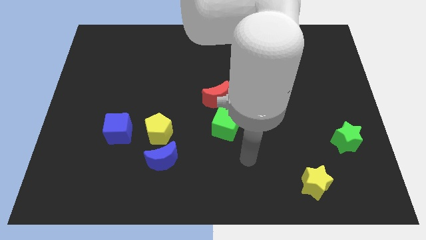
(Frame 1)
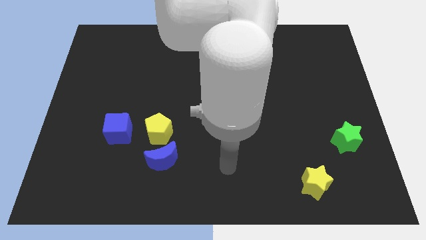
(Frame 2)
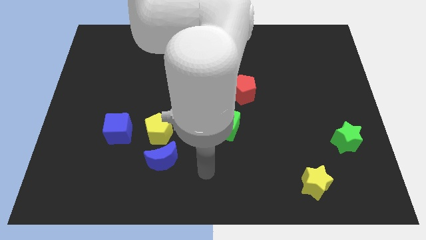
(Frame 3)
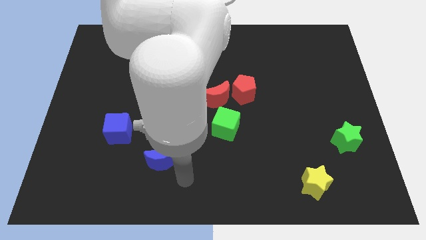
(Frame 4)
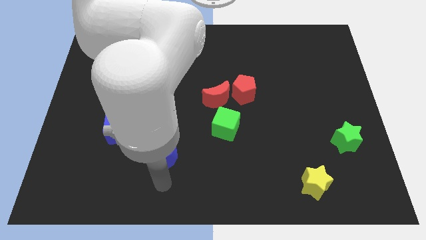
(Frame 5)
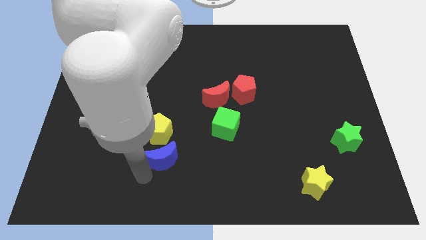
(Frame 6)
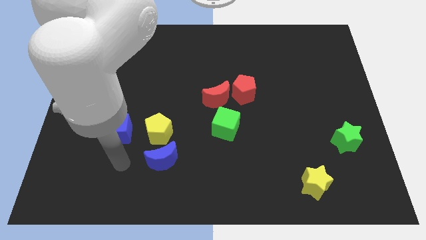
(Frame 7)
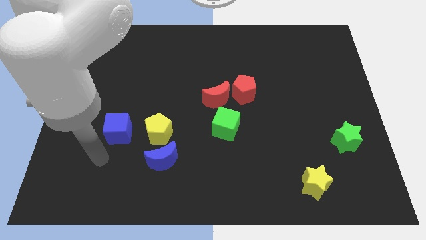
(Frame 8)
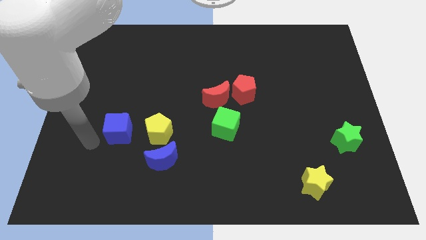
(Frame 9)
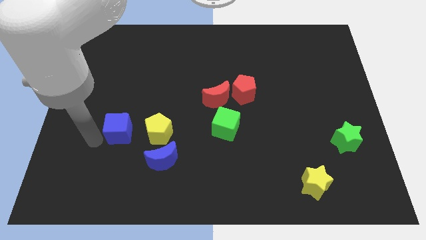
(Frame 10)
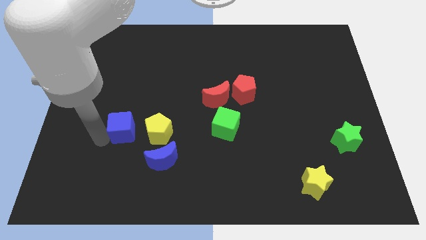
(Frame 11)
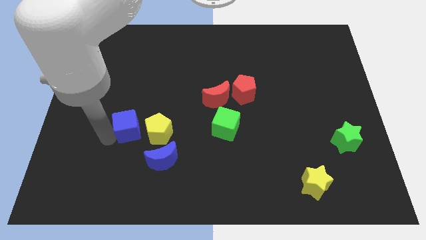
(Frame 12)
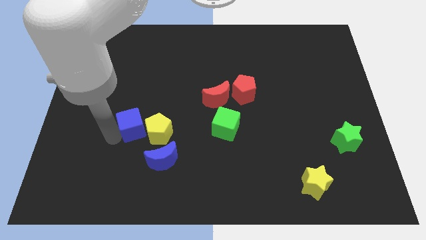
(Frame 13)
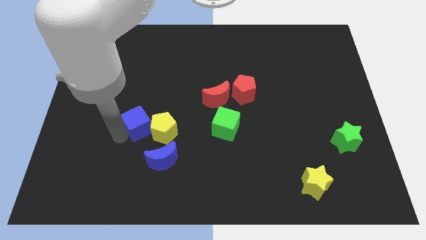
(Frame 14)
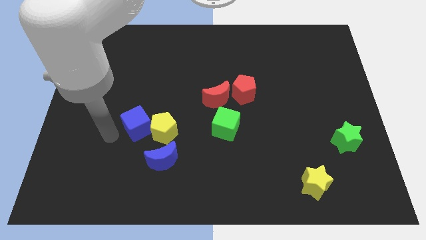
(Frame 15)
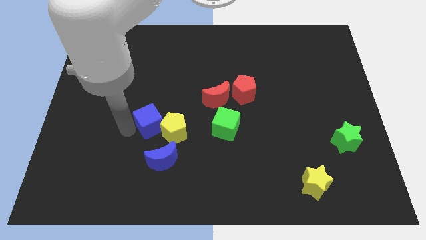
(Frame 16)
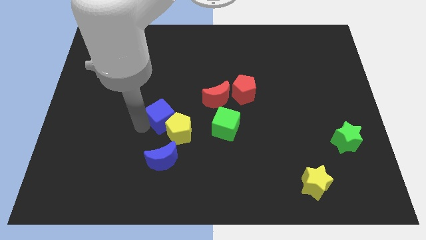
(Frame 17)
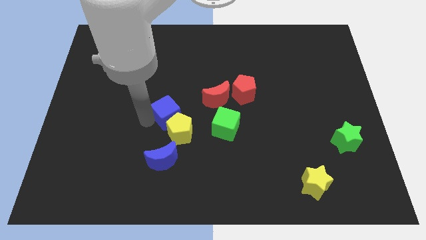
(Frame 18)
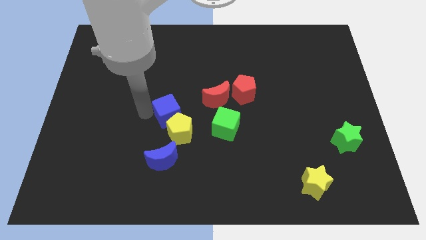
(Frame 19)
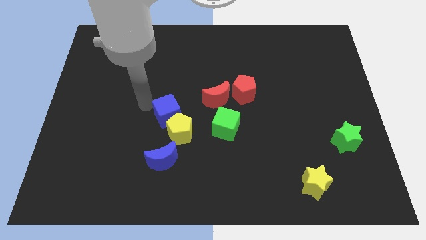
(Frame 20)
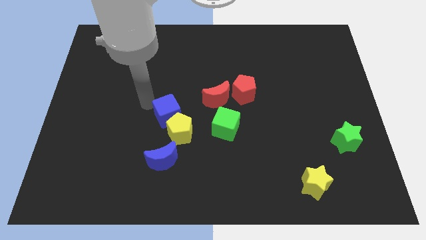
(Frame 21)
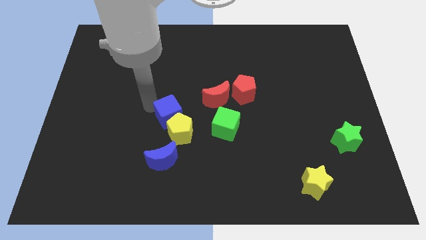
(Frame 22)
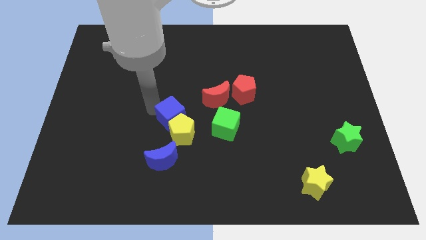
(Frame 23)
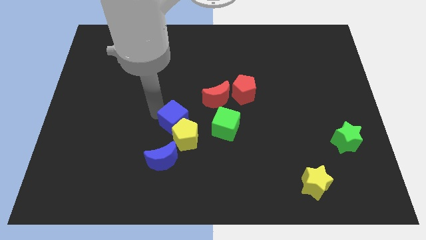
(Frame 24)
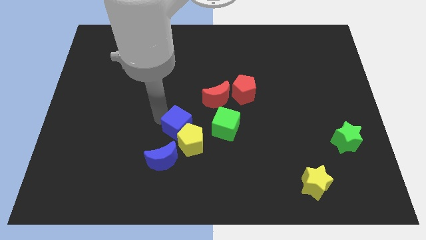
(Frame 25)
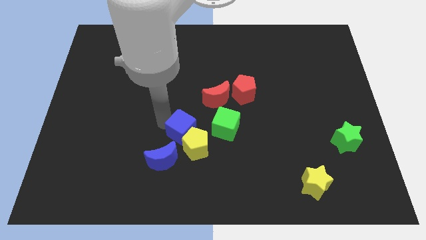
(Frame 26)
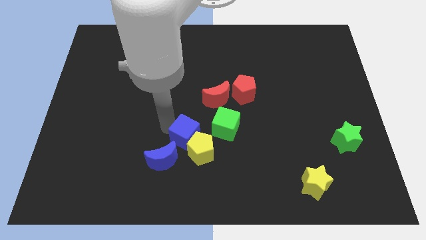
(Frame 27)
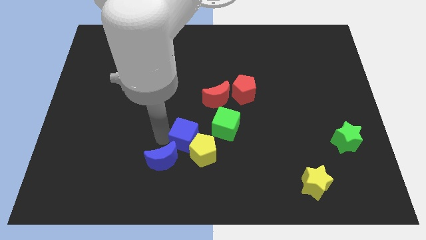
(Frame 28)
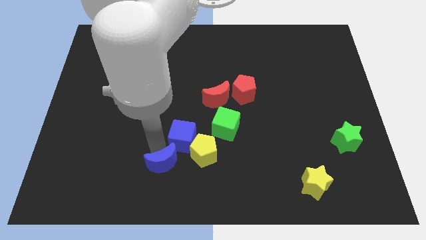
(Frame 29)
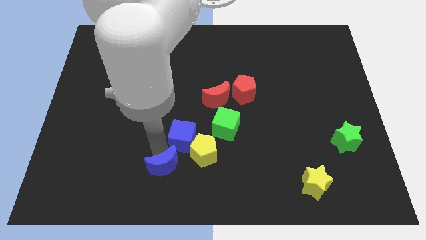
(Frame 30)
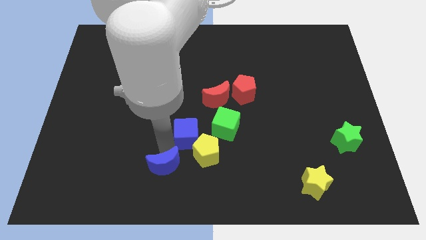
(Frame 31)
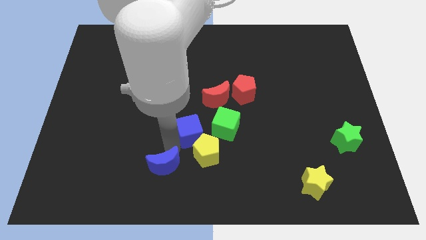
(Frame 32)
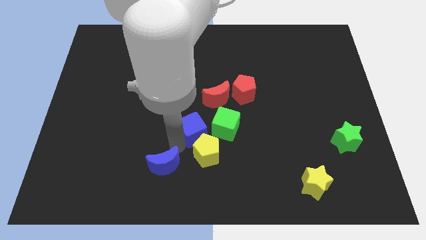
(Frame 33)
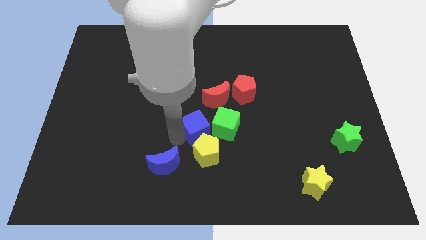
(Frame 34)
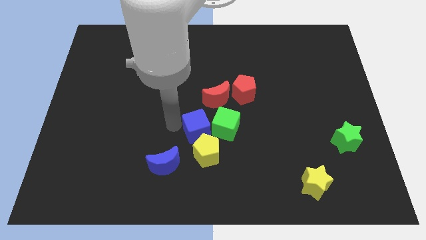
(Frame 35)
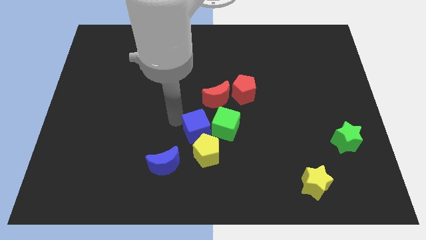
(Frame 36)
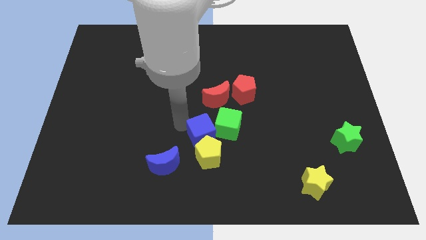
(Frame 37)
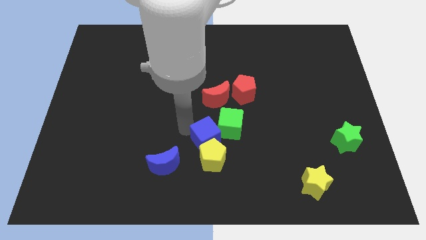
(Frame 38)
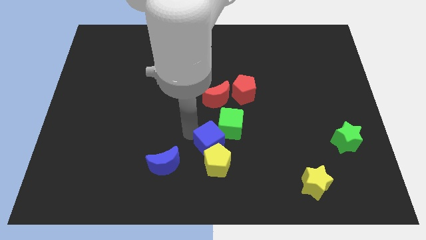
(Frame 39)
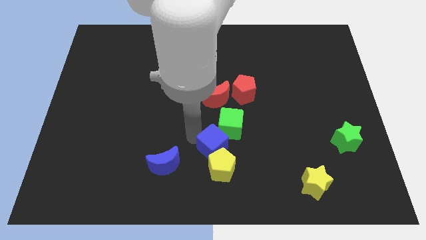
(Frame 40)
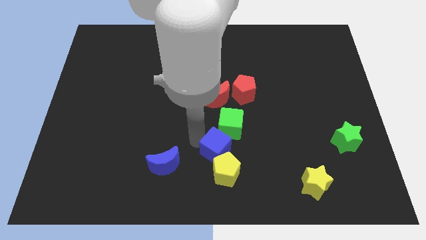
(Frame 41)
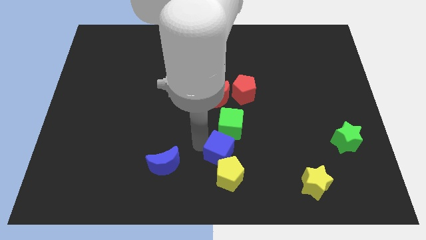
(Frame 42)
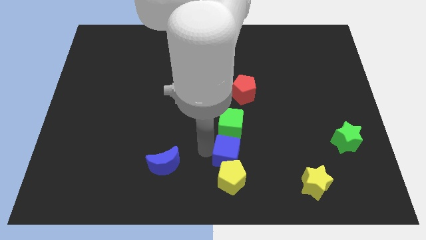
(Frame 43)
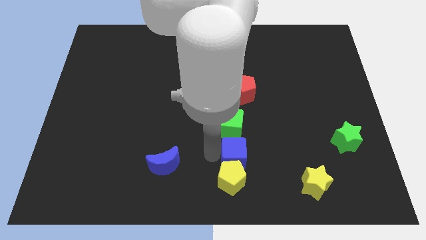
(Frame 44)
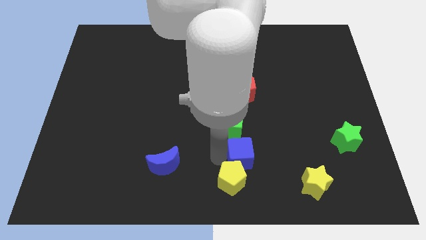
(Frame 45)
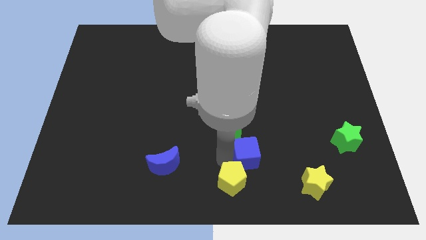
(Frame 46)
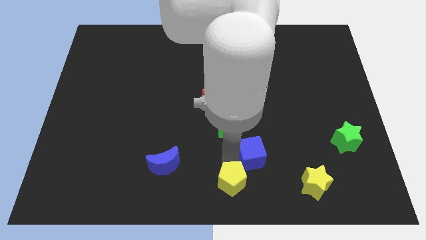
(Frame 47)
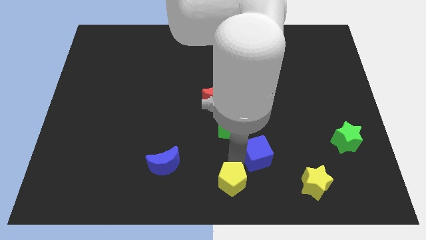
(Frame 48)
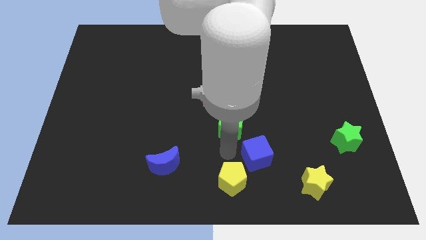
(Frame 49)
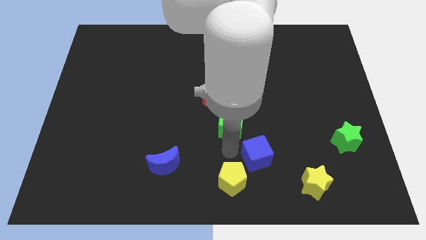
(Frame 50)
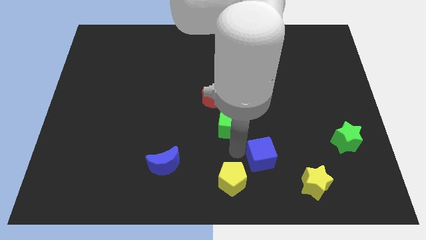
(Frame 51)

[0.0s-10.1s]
slide the blue cube to the top left of the yellow star

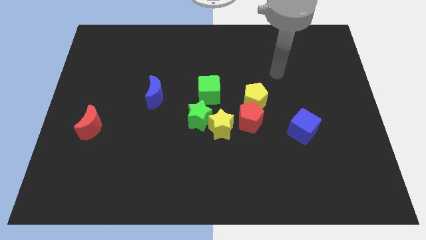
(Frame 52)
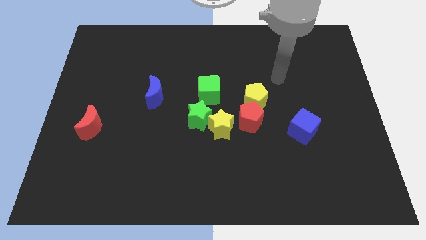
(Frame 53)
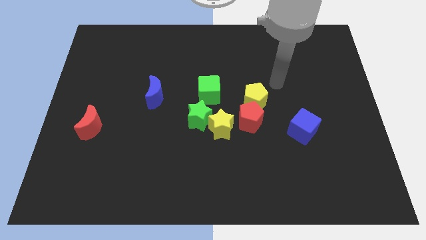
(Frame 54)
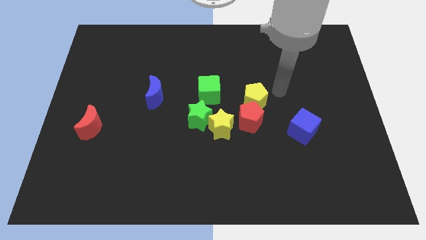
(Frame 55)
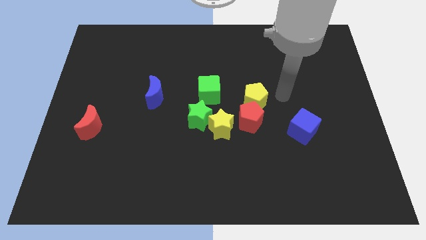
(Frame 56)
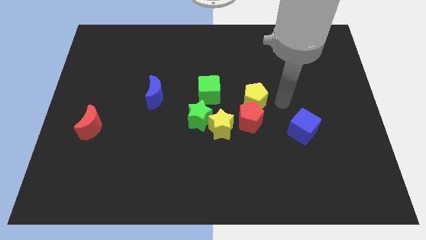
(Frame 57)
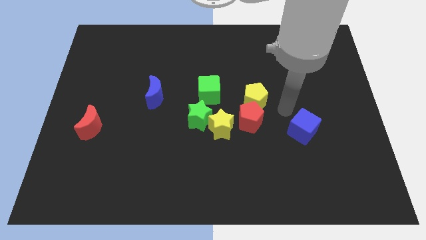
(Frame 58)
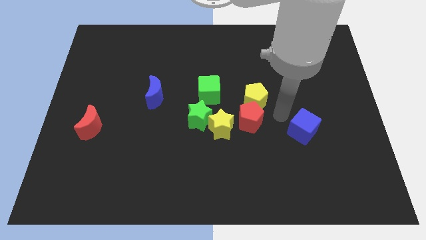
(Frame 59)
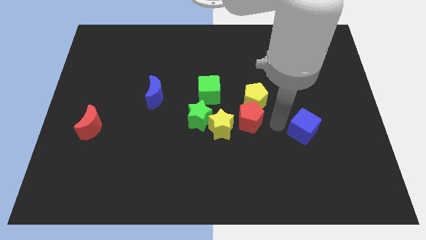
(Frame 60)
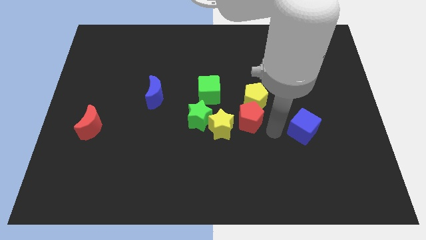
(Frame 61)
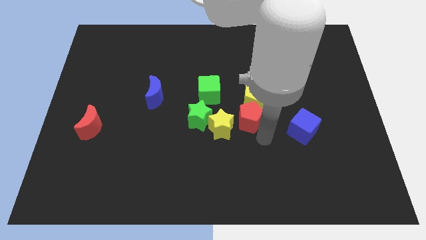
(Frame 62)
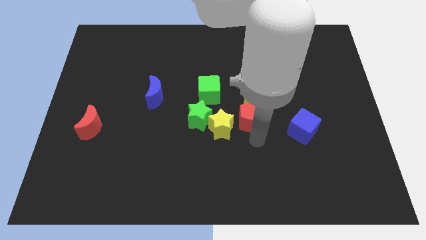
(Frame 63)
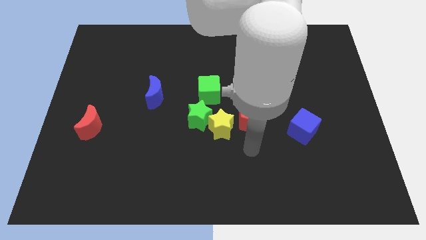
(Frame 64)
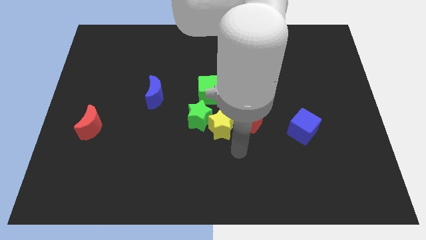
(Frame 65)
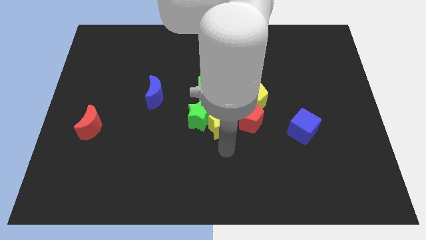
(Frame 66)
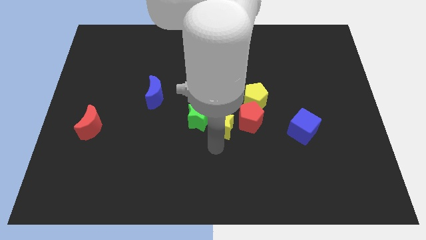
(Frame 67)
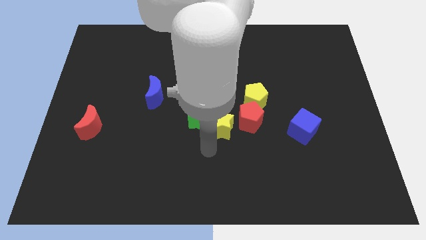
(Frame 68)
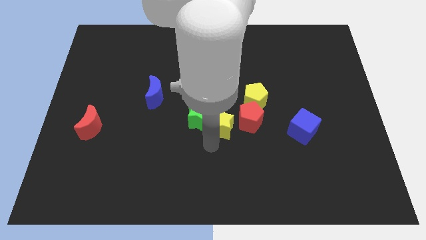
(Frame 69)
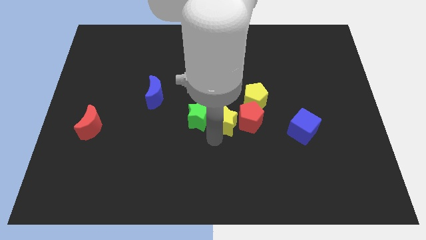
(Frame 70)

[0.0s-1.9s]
move the yellow star to the bottom right side of the green cube
